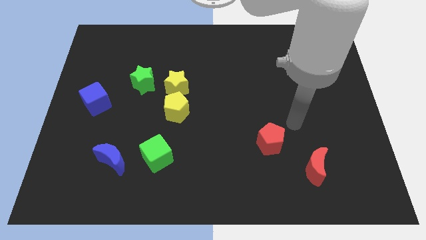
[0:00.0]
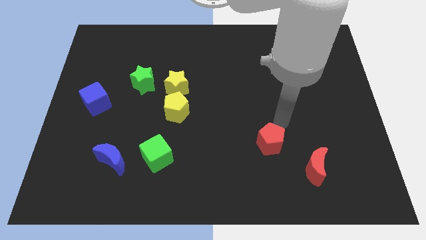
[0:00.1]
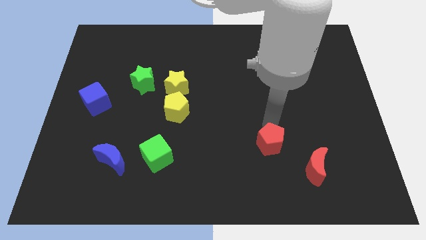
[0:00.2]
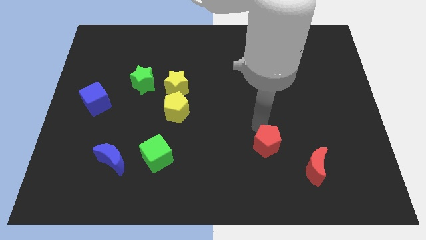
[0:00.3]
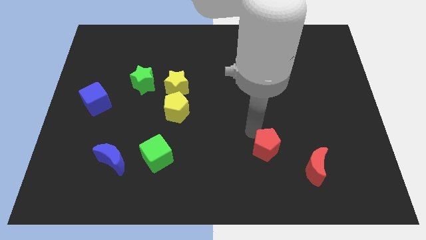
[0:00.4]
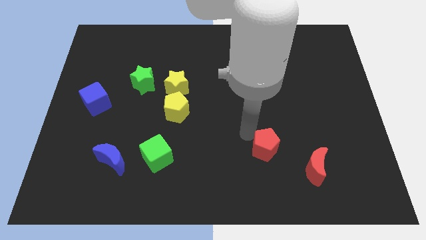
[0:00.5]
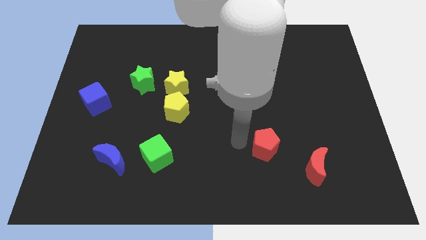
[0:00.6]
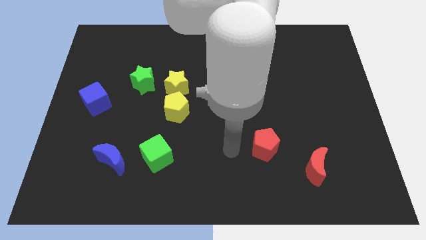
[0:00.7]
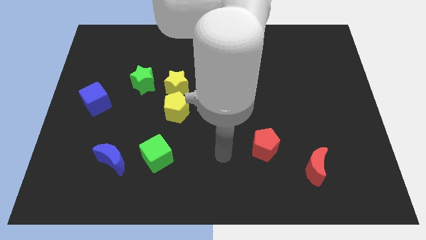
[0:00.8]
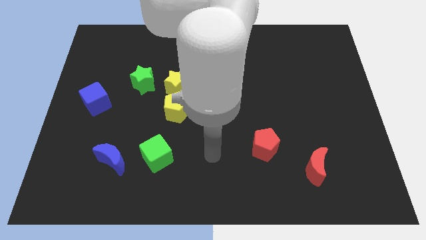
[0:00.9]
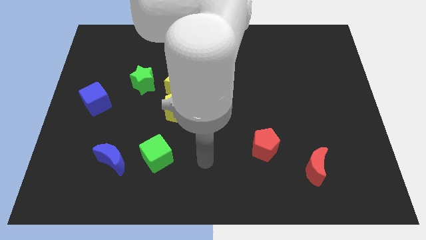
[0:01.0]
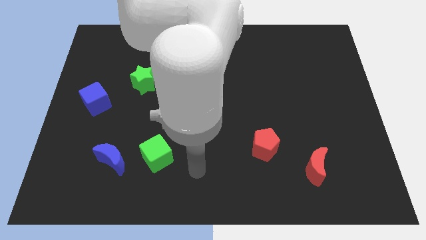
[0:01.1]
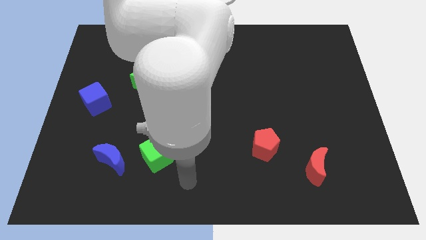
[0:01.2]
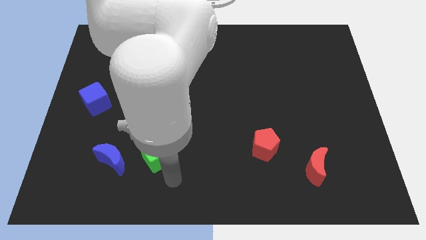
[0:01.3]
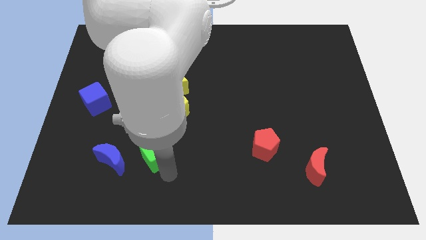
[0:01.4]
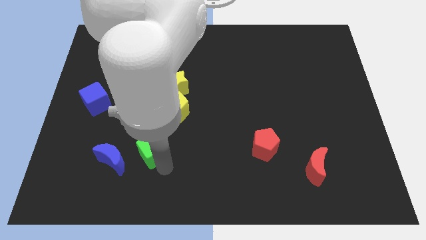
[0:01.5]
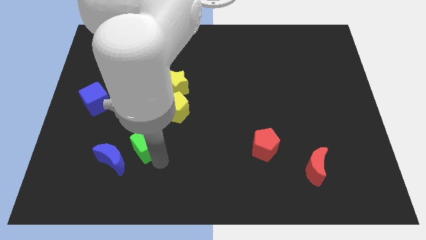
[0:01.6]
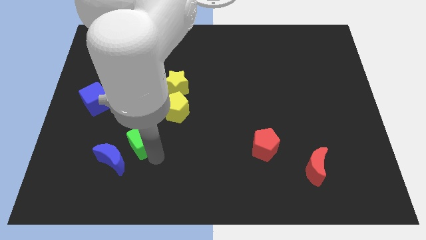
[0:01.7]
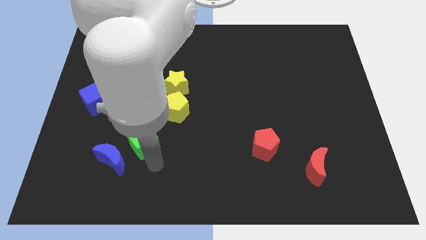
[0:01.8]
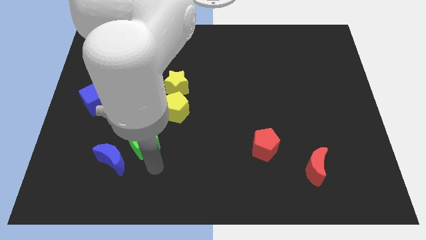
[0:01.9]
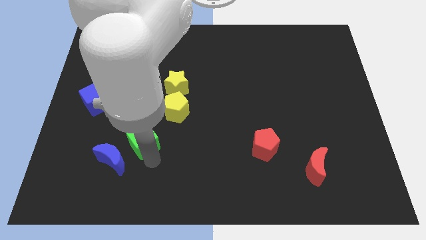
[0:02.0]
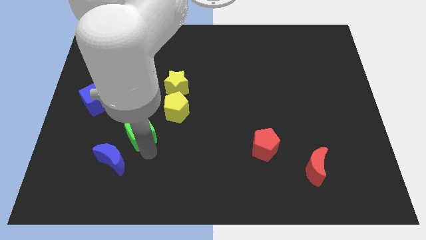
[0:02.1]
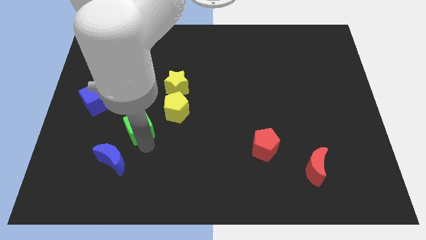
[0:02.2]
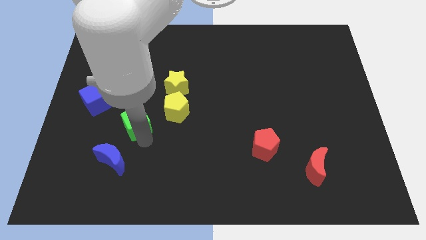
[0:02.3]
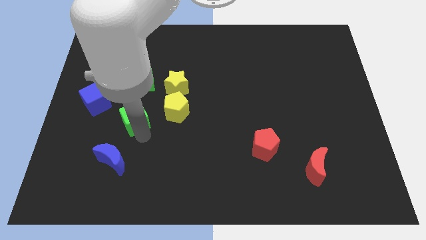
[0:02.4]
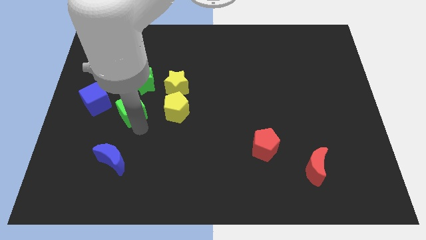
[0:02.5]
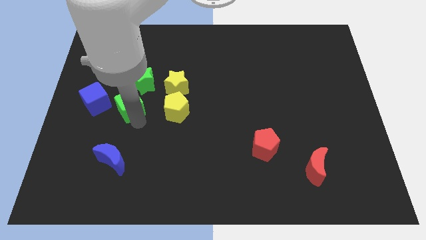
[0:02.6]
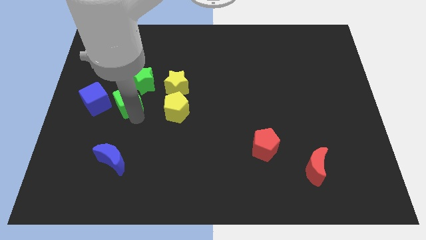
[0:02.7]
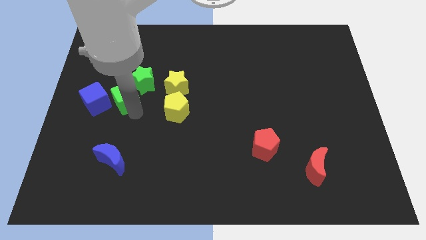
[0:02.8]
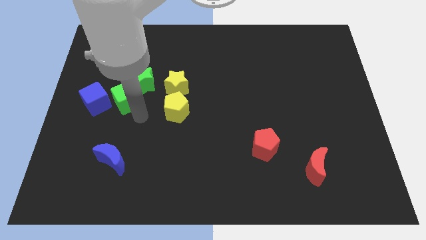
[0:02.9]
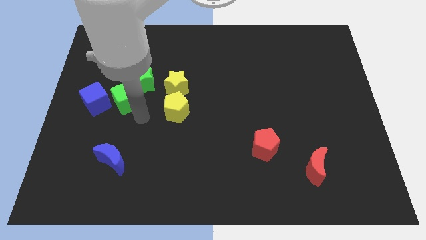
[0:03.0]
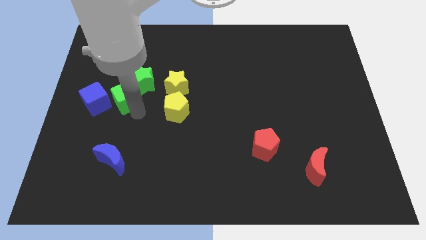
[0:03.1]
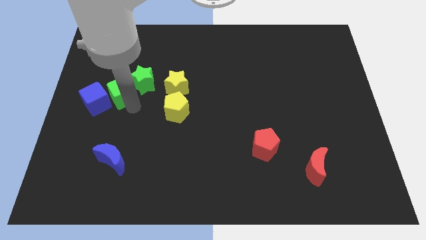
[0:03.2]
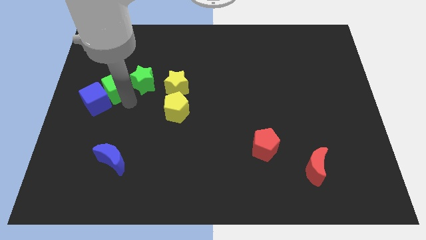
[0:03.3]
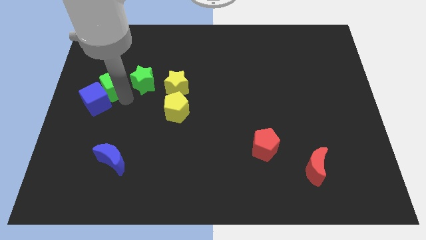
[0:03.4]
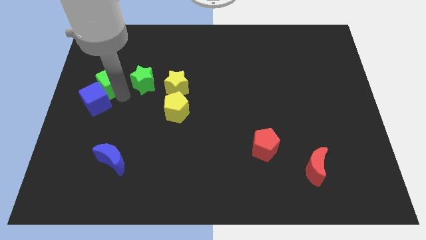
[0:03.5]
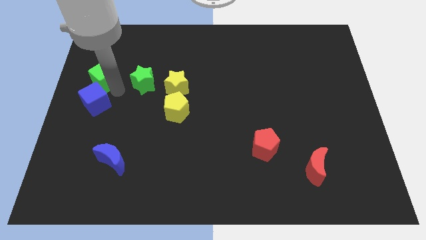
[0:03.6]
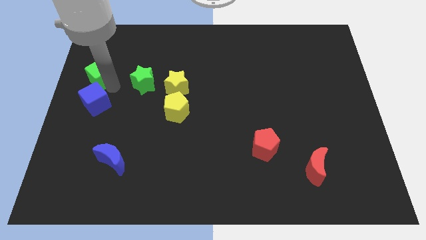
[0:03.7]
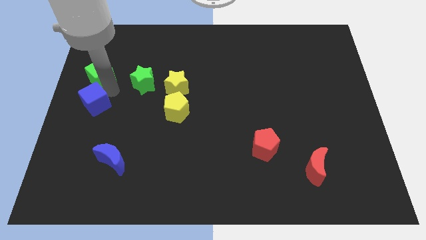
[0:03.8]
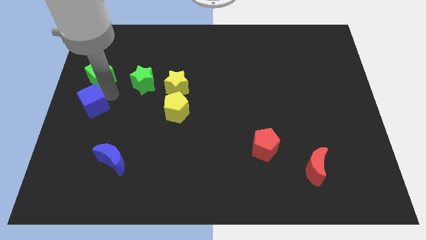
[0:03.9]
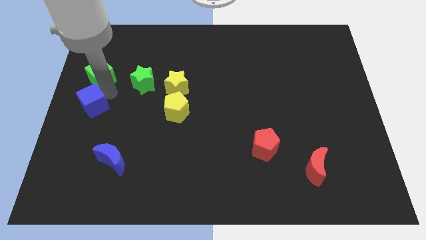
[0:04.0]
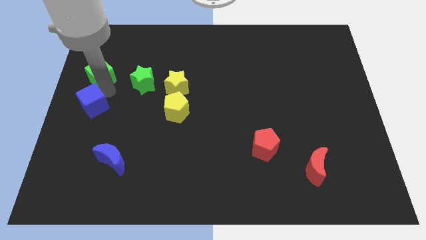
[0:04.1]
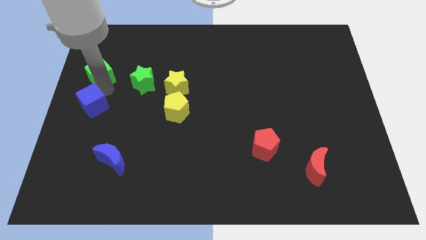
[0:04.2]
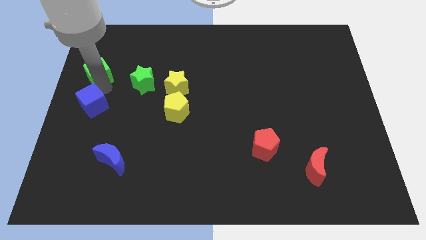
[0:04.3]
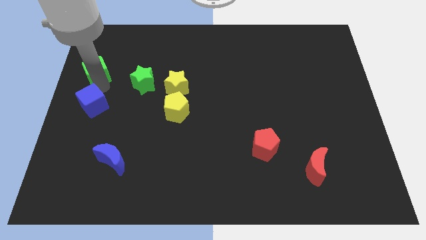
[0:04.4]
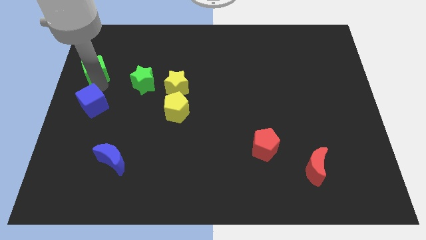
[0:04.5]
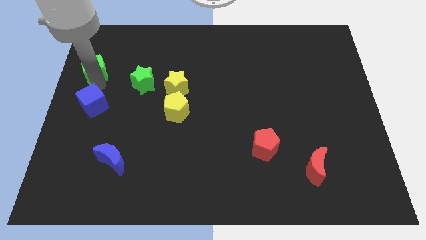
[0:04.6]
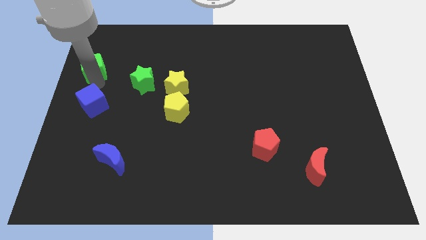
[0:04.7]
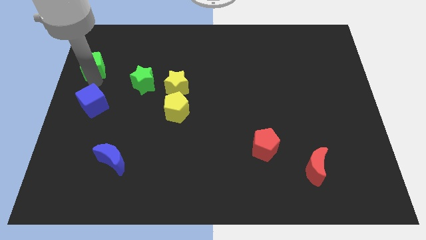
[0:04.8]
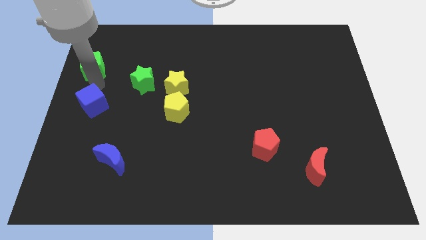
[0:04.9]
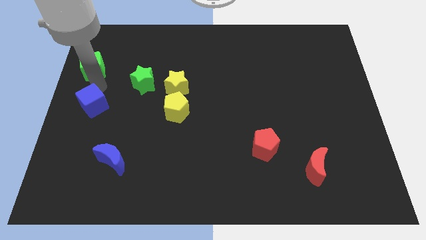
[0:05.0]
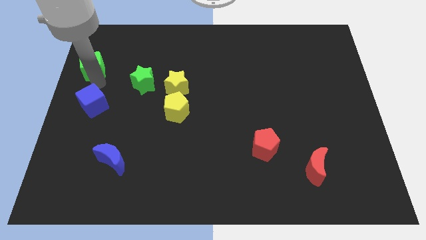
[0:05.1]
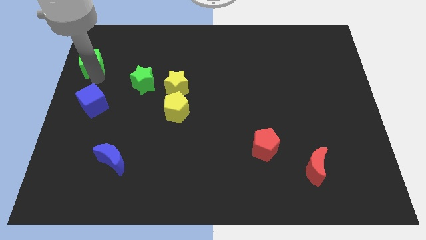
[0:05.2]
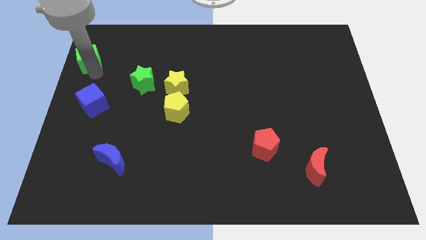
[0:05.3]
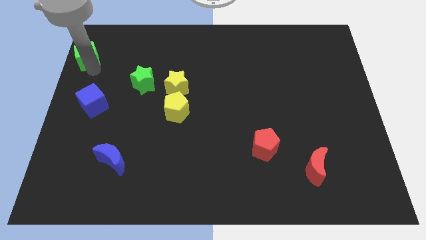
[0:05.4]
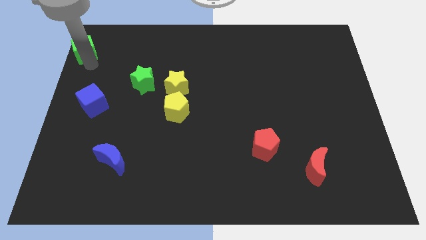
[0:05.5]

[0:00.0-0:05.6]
push the green cube to the upper left corner
